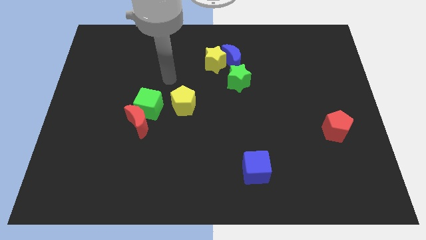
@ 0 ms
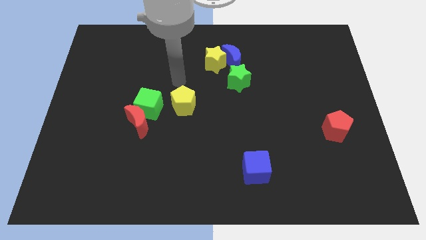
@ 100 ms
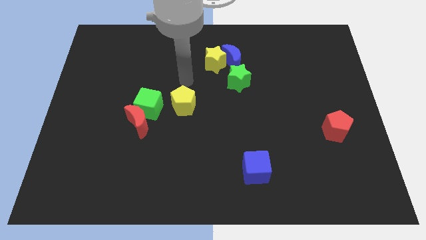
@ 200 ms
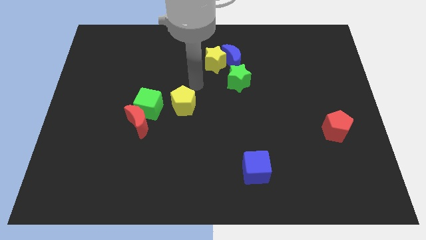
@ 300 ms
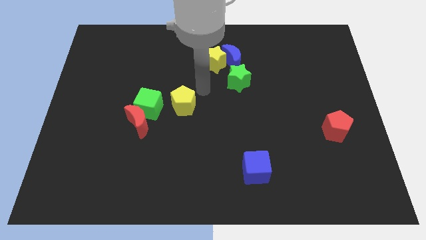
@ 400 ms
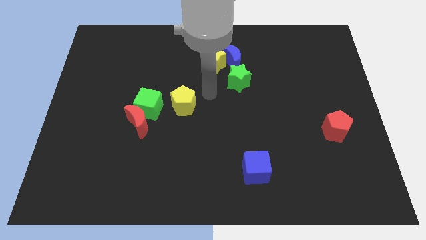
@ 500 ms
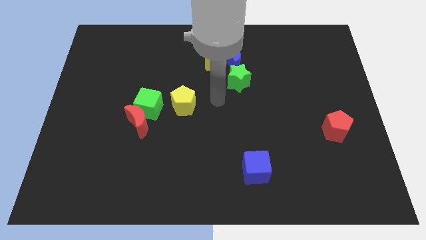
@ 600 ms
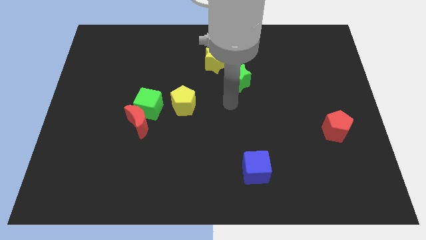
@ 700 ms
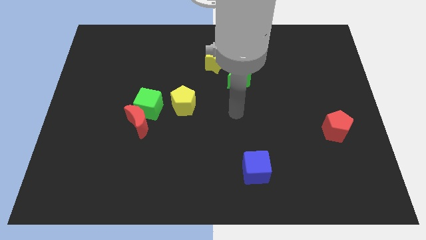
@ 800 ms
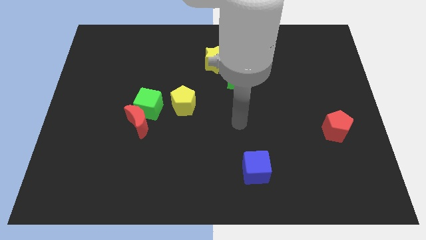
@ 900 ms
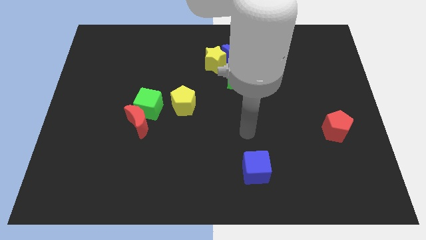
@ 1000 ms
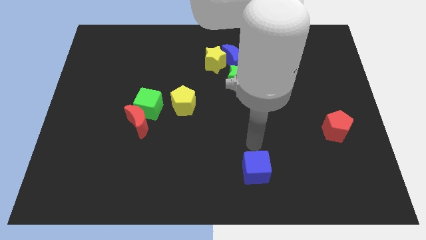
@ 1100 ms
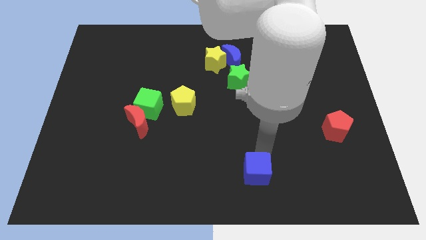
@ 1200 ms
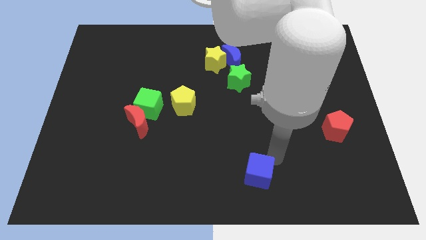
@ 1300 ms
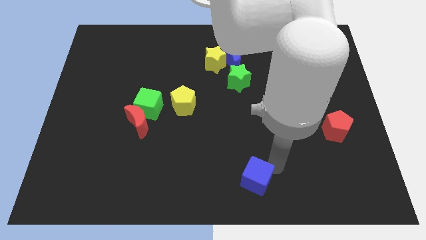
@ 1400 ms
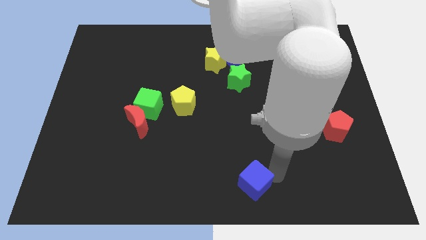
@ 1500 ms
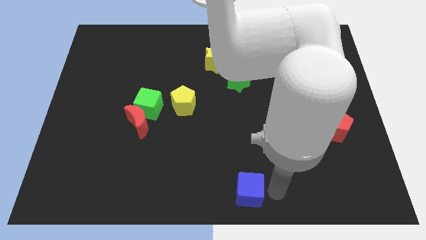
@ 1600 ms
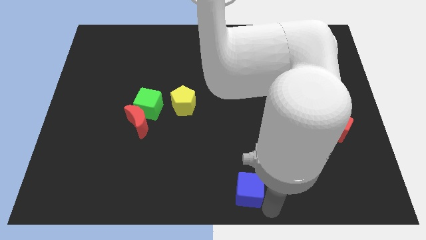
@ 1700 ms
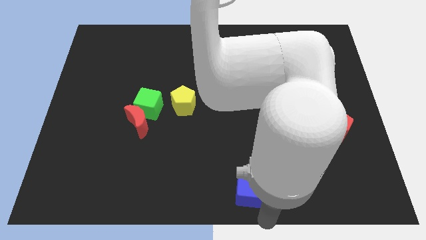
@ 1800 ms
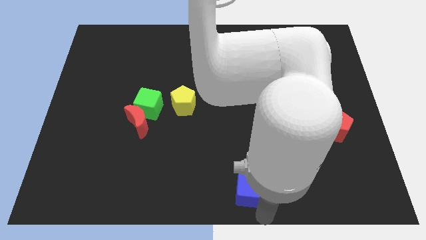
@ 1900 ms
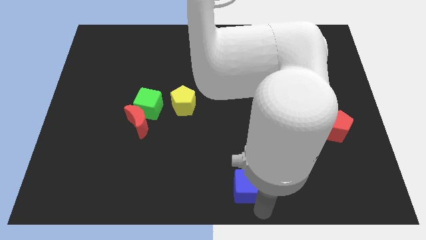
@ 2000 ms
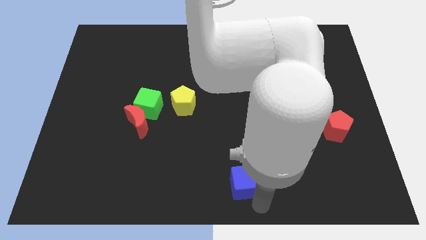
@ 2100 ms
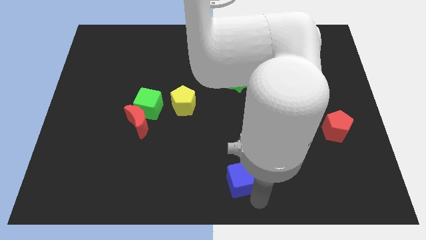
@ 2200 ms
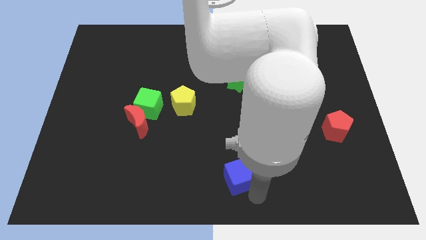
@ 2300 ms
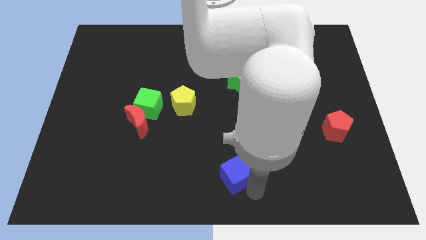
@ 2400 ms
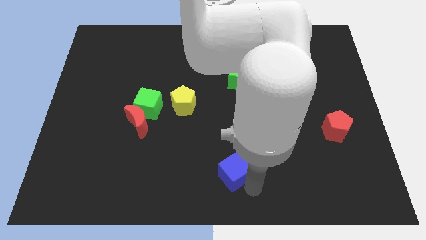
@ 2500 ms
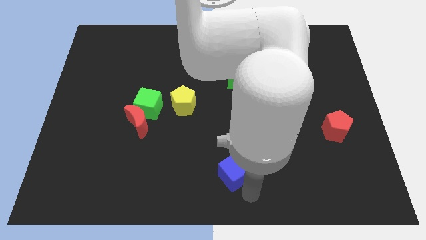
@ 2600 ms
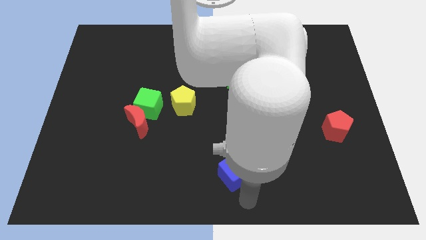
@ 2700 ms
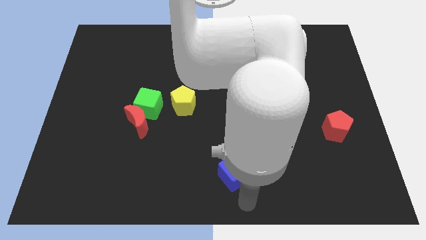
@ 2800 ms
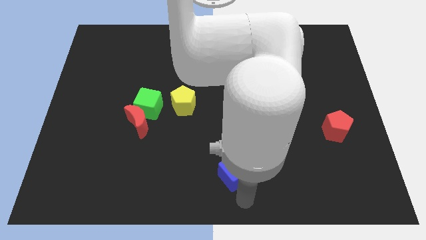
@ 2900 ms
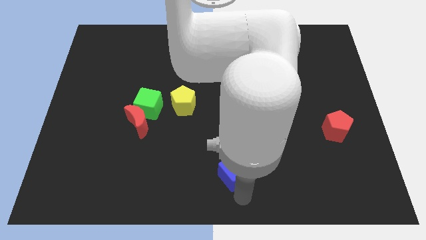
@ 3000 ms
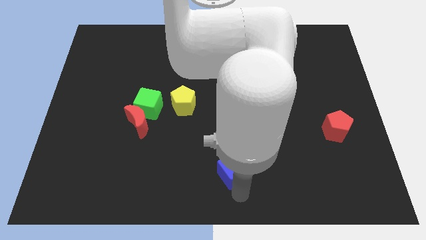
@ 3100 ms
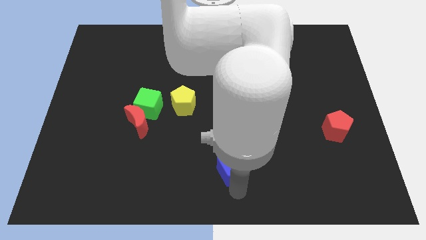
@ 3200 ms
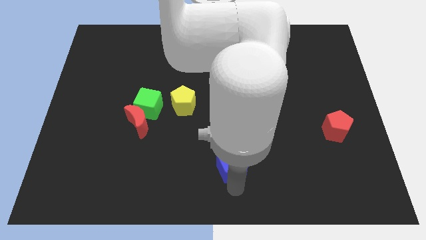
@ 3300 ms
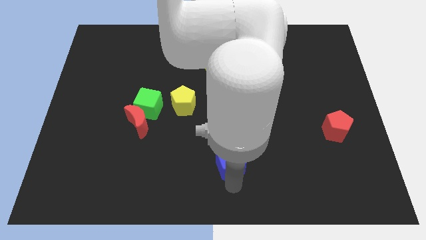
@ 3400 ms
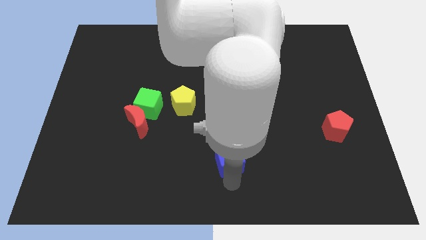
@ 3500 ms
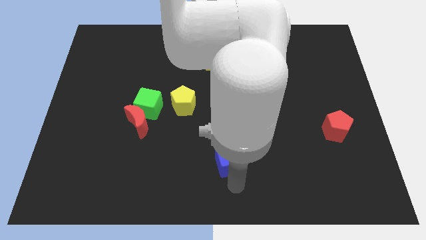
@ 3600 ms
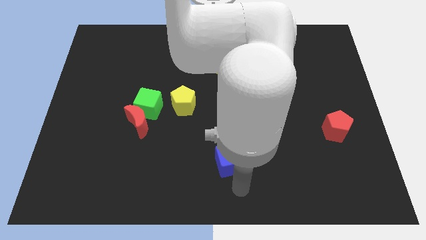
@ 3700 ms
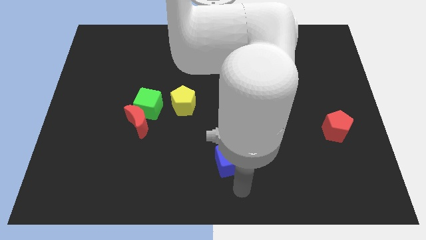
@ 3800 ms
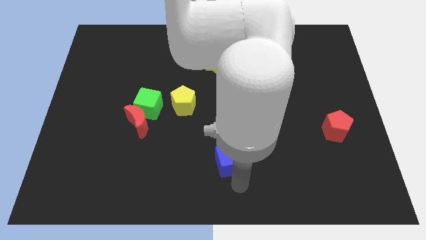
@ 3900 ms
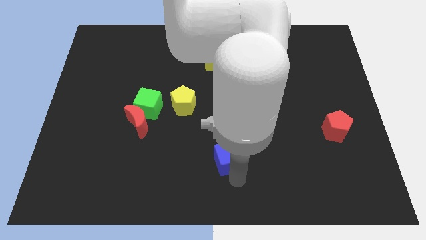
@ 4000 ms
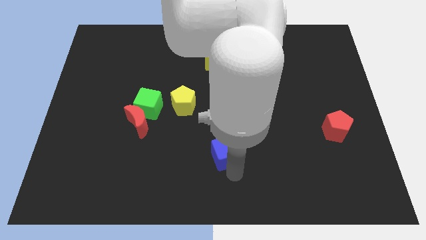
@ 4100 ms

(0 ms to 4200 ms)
slightly move the blue cube up and then to the left

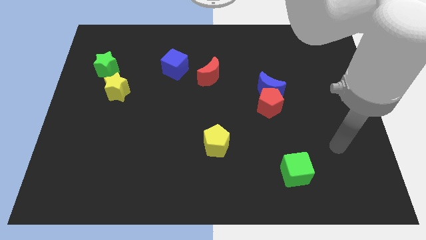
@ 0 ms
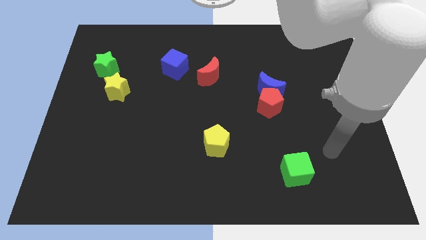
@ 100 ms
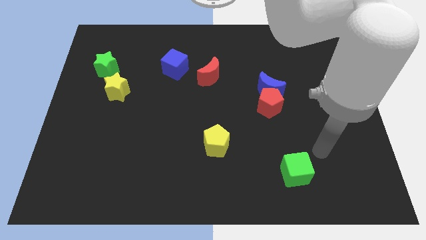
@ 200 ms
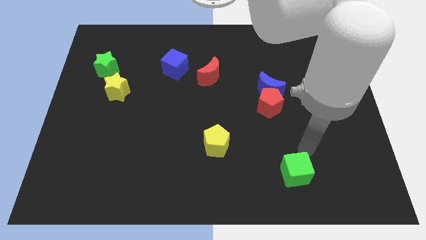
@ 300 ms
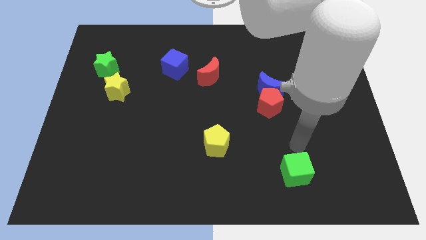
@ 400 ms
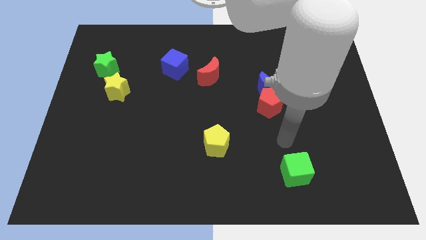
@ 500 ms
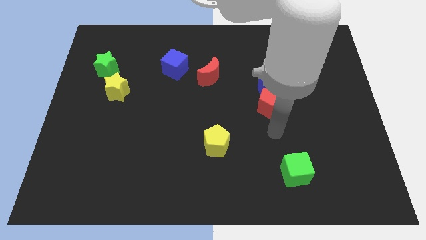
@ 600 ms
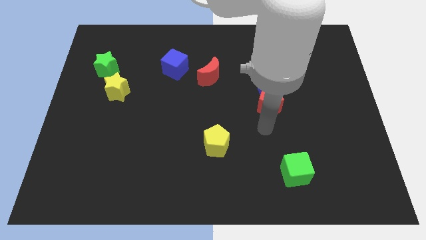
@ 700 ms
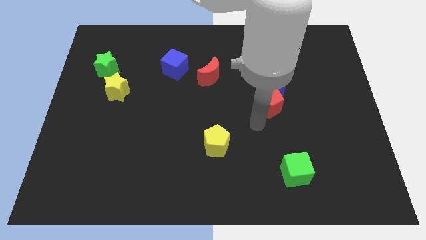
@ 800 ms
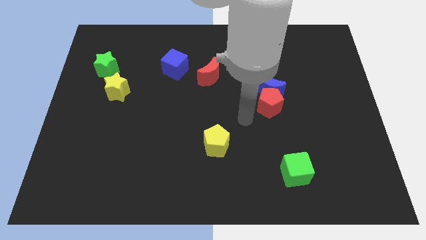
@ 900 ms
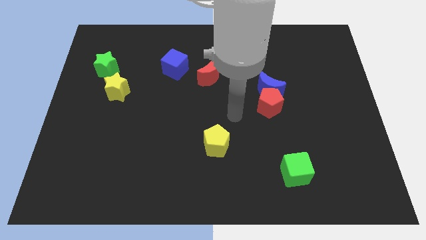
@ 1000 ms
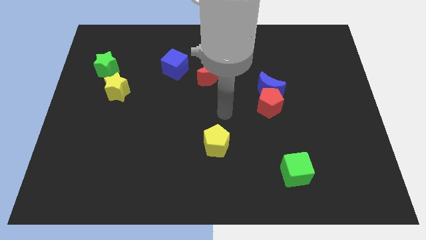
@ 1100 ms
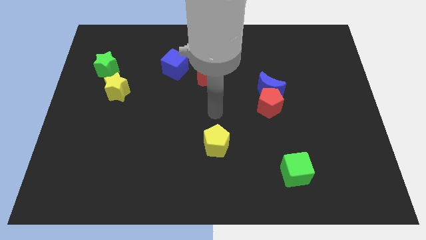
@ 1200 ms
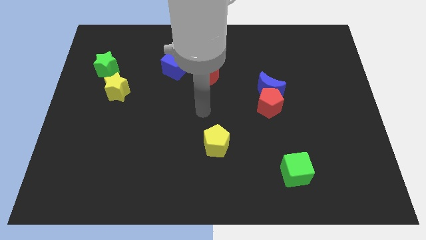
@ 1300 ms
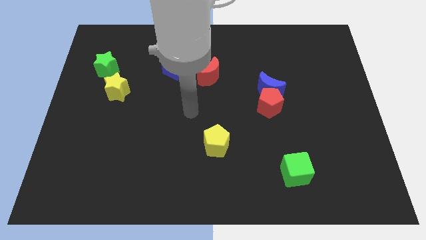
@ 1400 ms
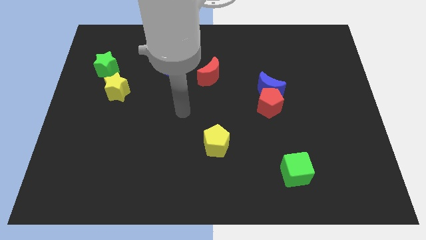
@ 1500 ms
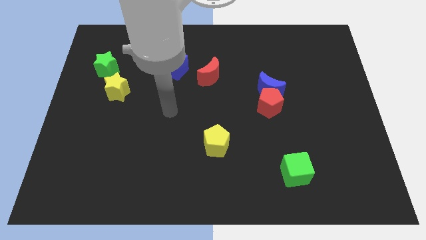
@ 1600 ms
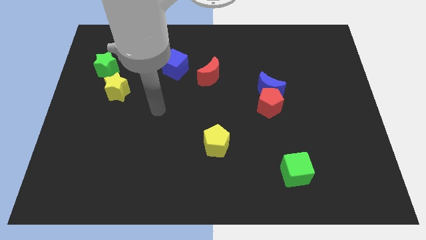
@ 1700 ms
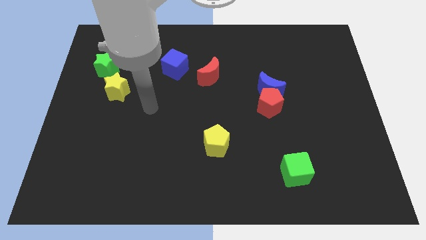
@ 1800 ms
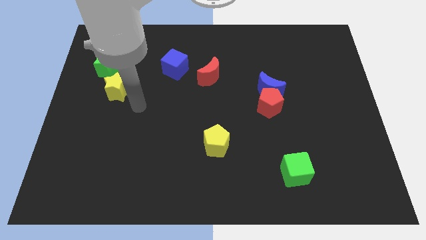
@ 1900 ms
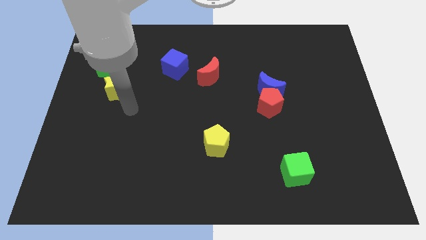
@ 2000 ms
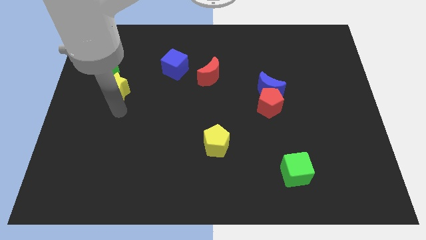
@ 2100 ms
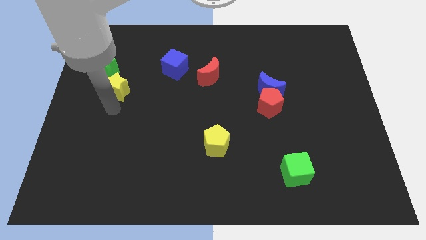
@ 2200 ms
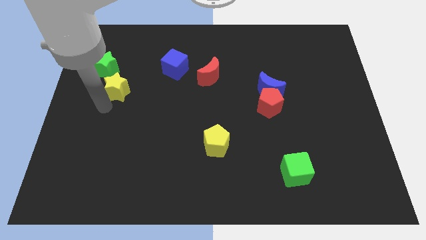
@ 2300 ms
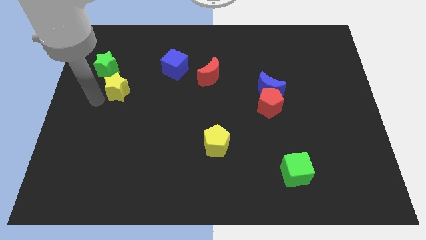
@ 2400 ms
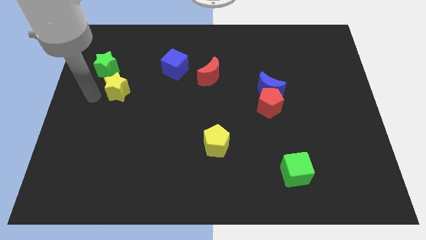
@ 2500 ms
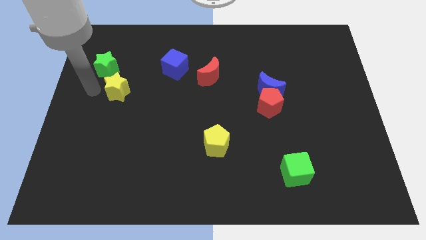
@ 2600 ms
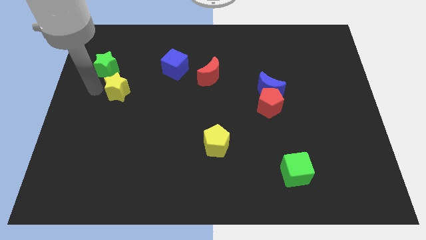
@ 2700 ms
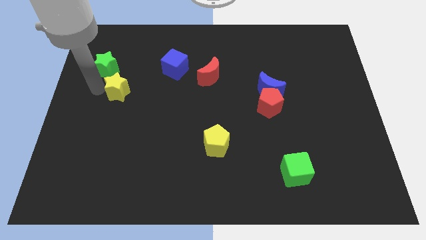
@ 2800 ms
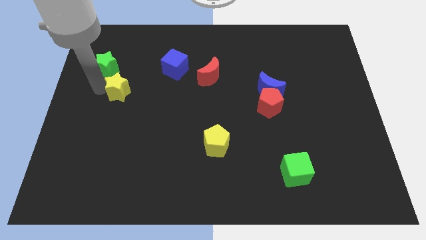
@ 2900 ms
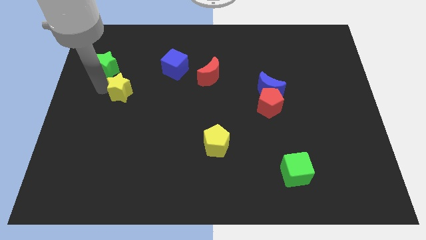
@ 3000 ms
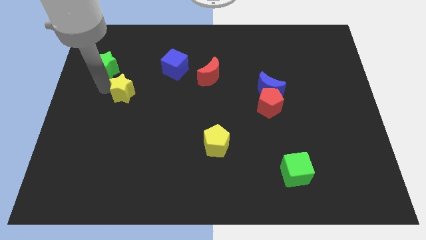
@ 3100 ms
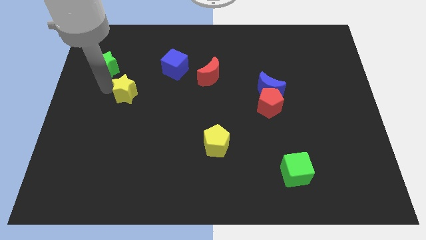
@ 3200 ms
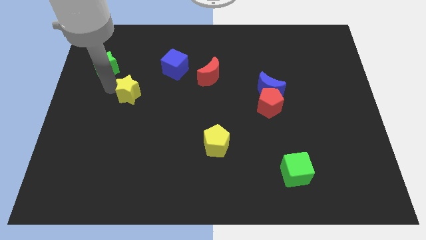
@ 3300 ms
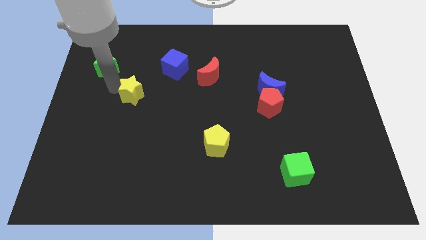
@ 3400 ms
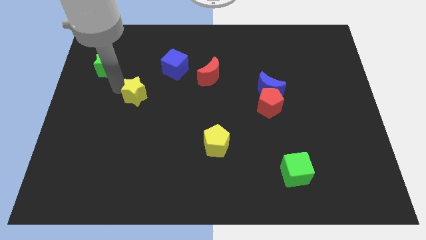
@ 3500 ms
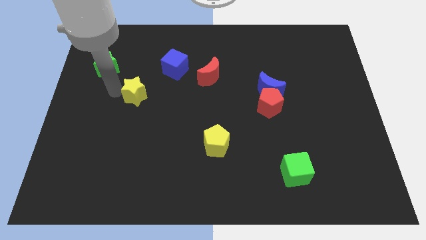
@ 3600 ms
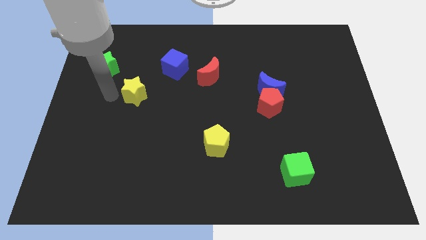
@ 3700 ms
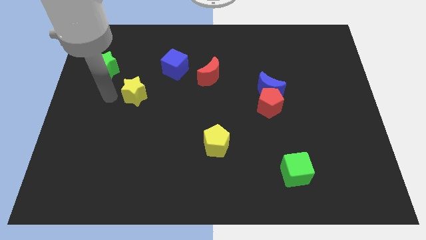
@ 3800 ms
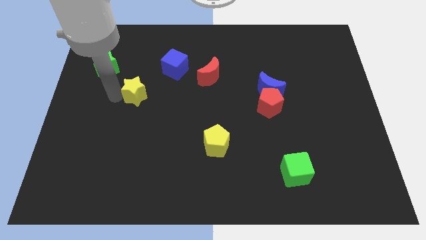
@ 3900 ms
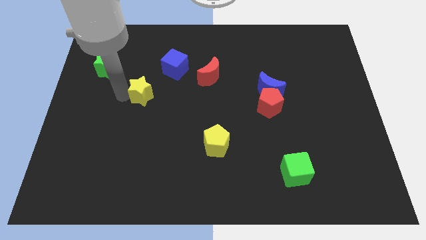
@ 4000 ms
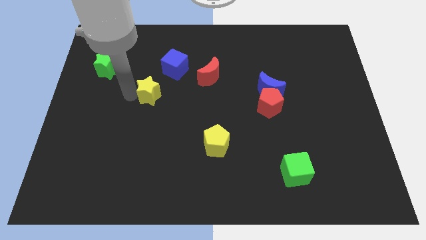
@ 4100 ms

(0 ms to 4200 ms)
push the yellow star somewhat right
